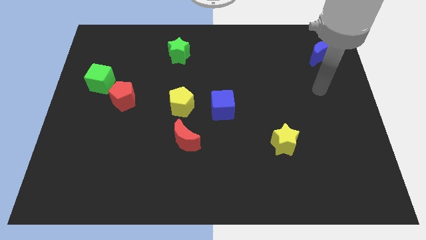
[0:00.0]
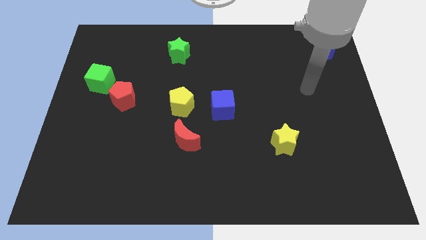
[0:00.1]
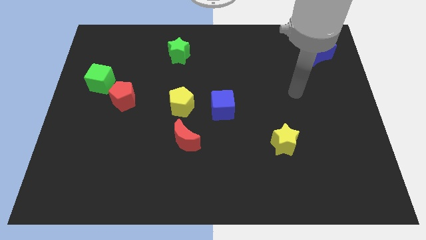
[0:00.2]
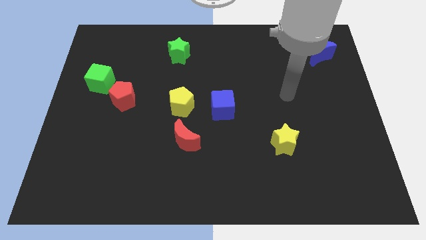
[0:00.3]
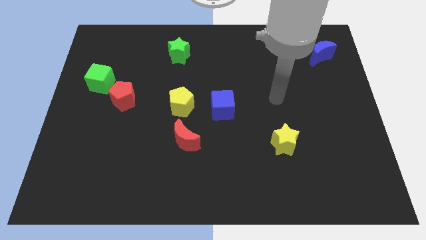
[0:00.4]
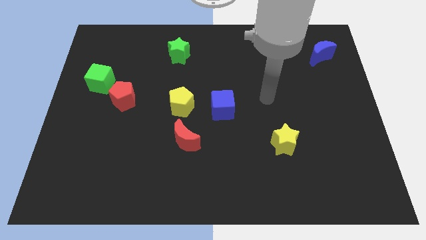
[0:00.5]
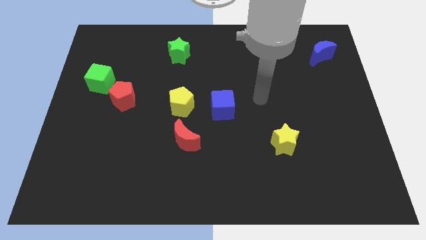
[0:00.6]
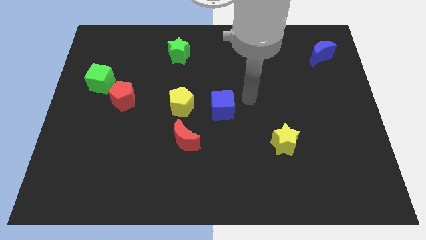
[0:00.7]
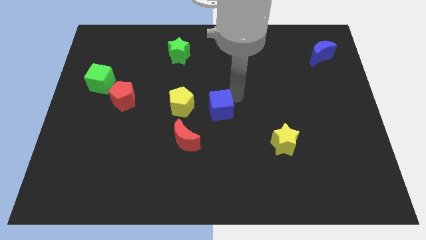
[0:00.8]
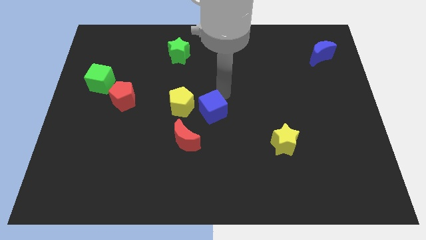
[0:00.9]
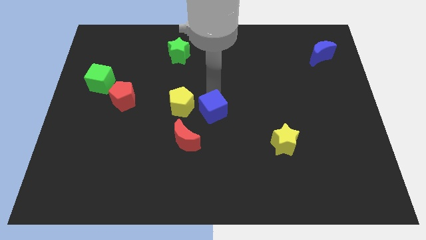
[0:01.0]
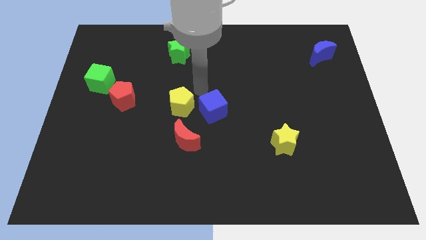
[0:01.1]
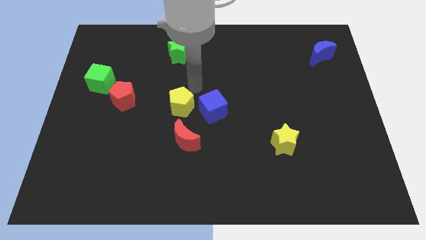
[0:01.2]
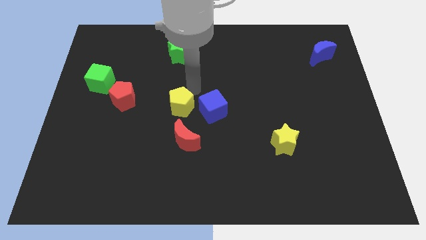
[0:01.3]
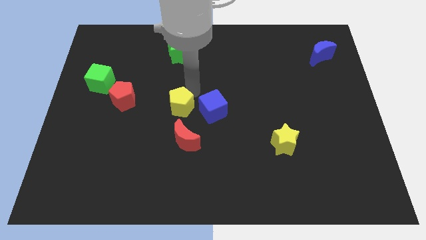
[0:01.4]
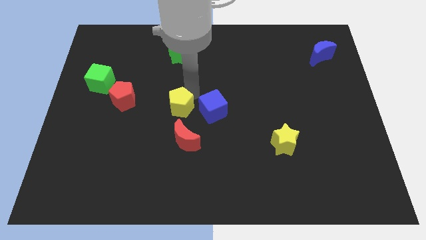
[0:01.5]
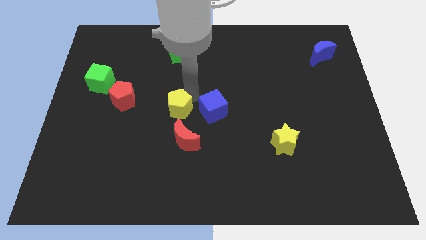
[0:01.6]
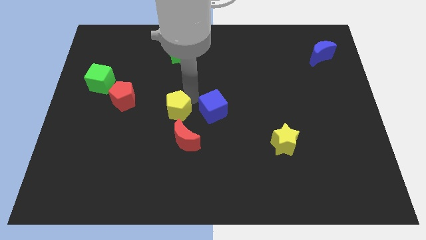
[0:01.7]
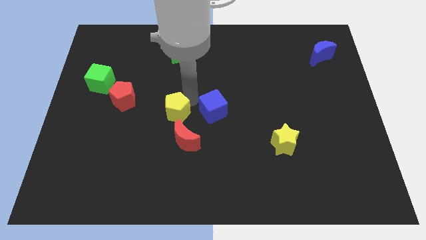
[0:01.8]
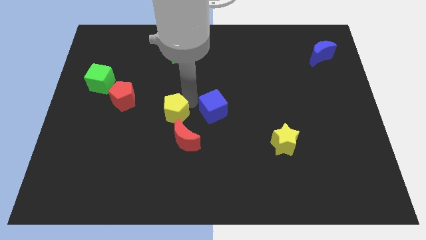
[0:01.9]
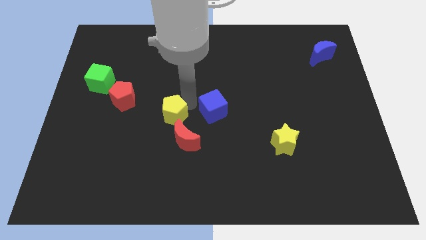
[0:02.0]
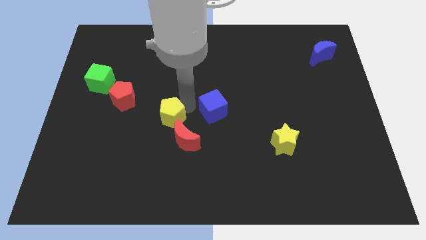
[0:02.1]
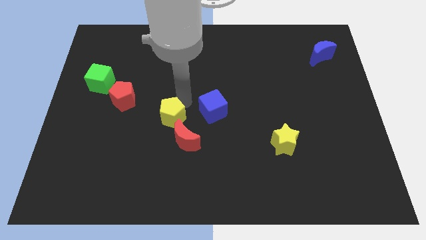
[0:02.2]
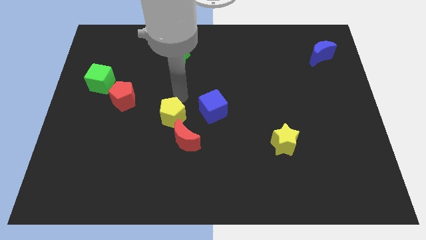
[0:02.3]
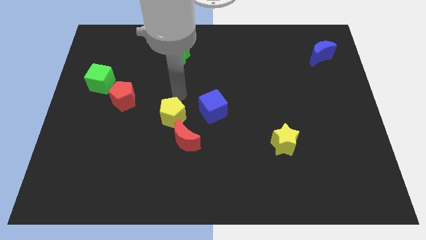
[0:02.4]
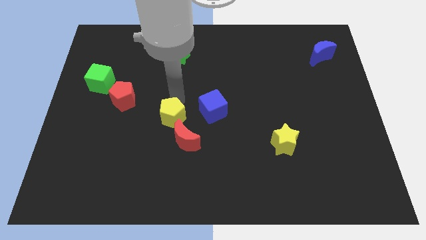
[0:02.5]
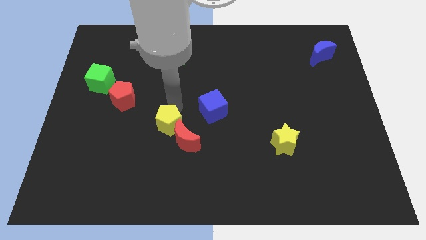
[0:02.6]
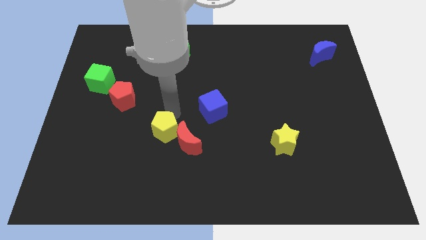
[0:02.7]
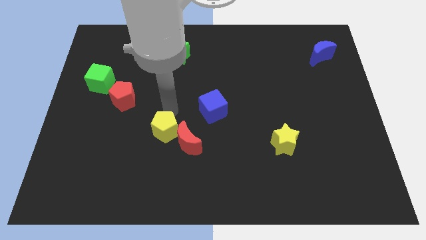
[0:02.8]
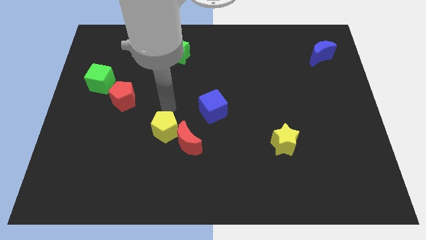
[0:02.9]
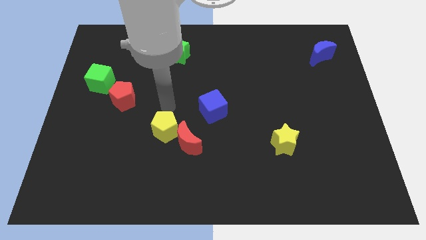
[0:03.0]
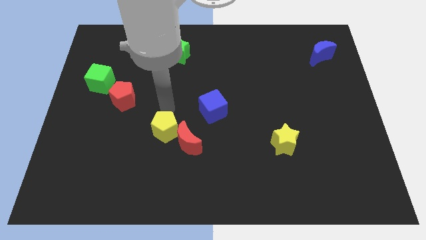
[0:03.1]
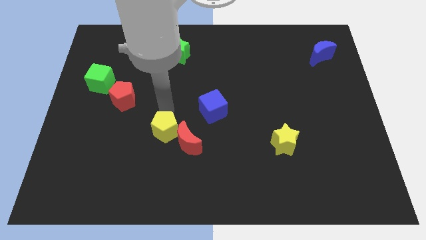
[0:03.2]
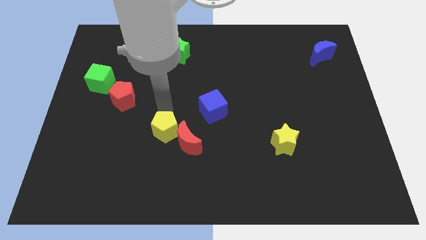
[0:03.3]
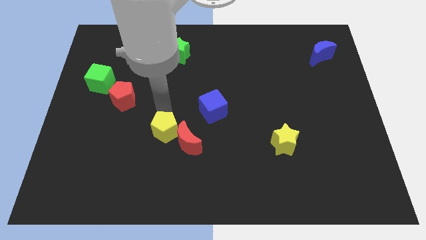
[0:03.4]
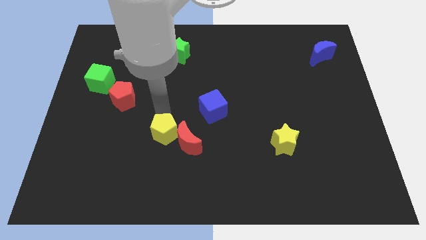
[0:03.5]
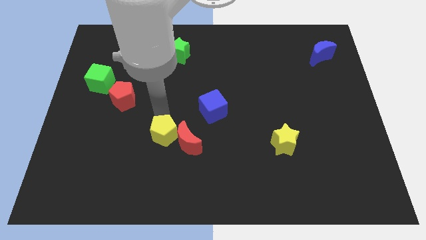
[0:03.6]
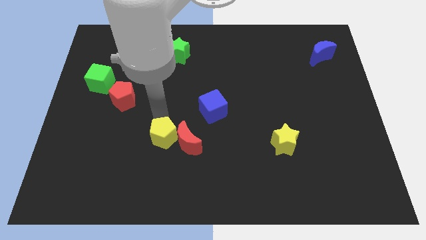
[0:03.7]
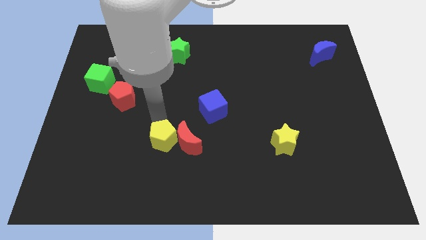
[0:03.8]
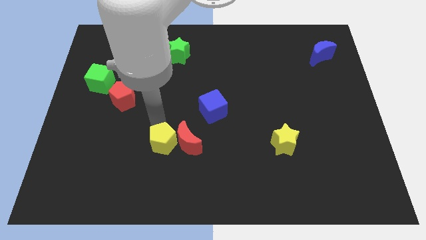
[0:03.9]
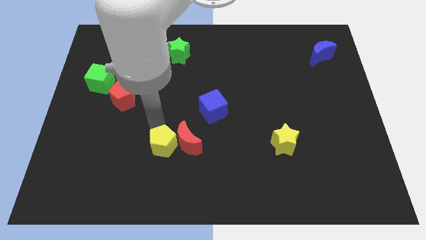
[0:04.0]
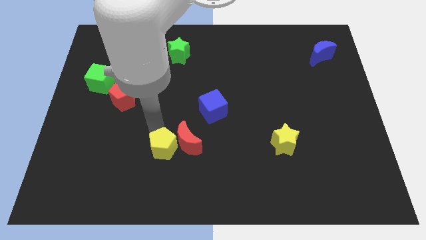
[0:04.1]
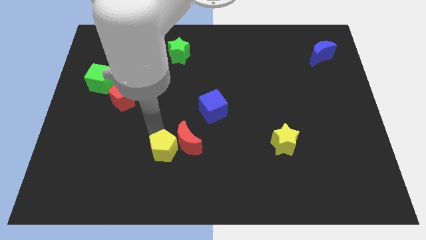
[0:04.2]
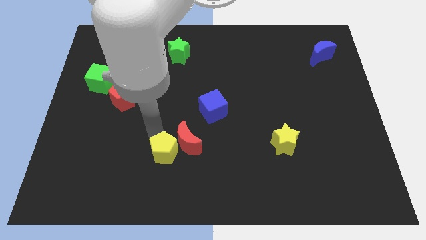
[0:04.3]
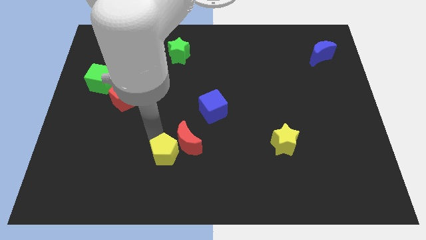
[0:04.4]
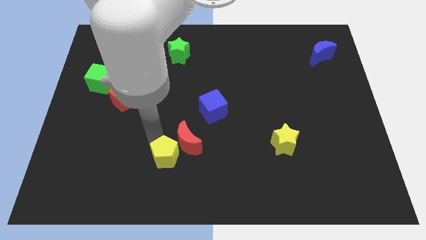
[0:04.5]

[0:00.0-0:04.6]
put the yellow pentagon to the bottom of the red moon

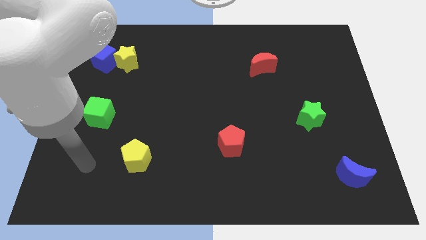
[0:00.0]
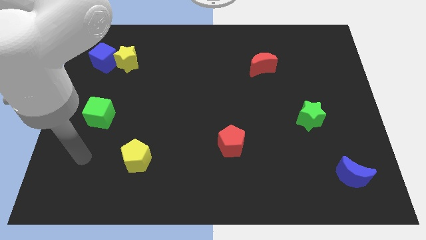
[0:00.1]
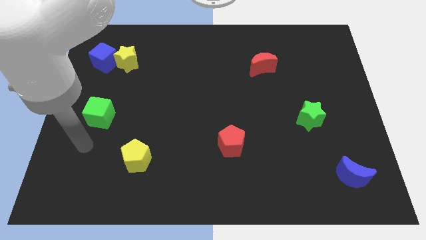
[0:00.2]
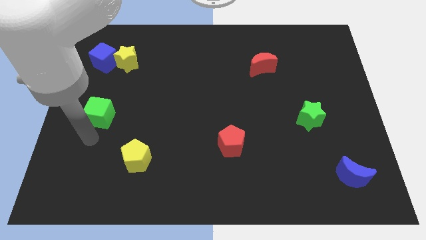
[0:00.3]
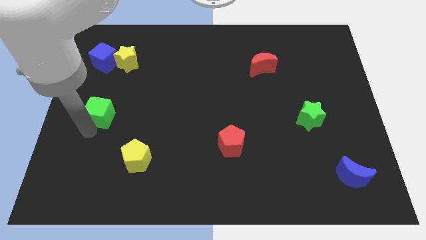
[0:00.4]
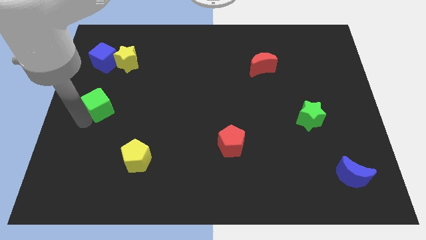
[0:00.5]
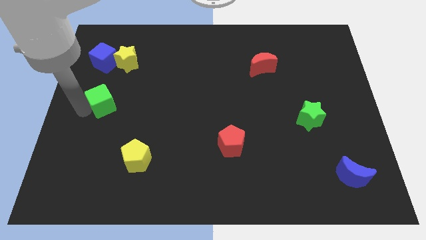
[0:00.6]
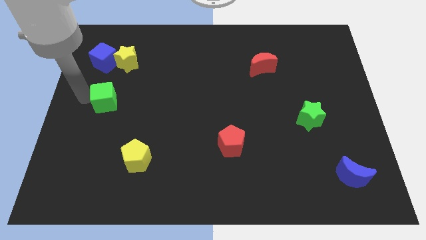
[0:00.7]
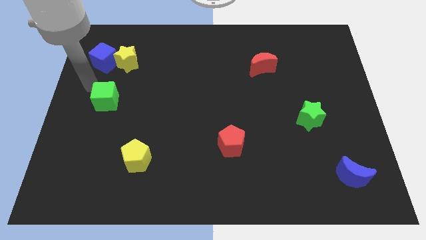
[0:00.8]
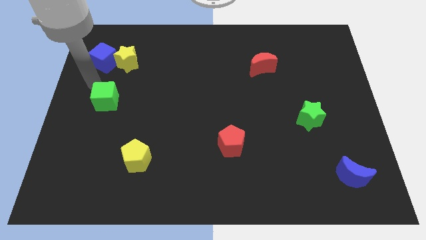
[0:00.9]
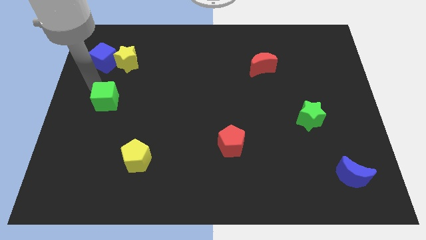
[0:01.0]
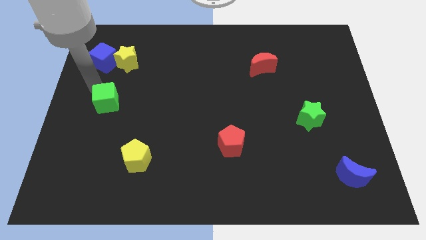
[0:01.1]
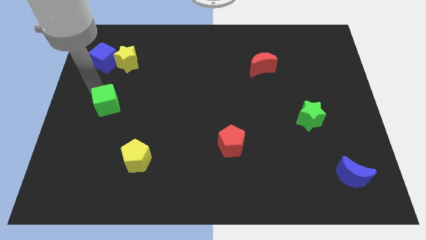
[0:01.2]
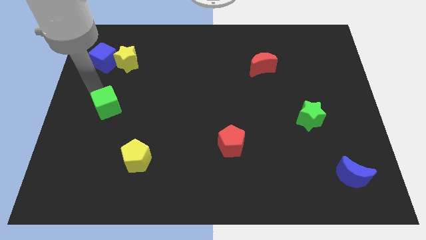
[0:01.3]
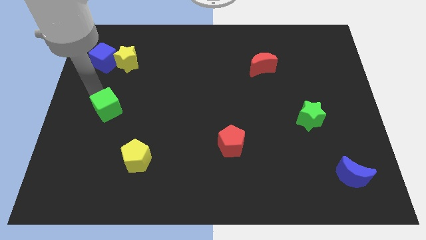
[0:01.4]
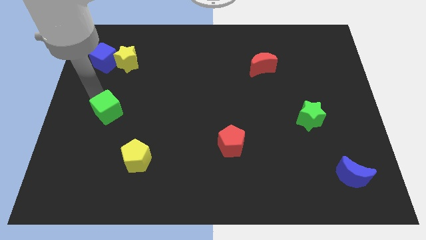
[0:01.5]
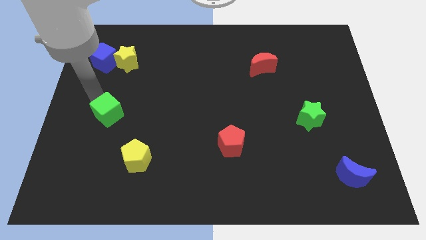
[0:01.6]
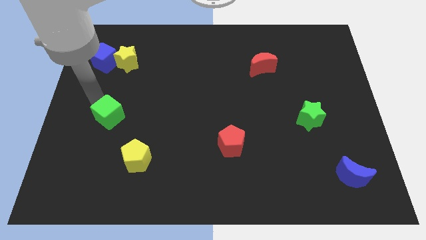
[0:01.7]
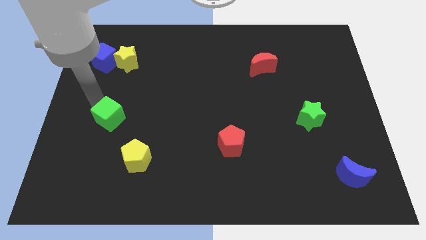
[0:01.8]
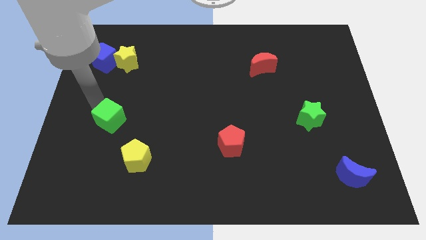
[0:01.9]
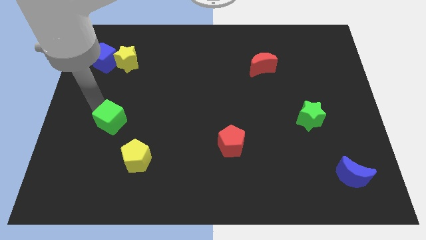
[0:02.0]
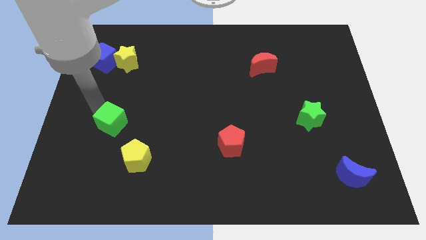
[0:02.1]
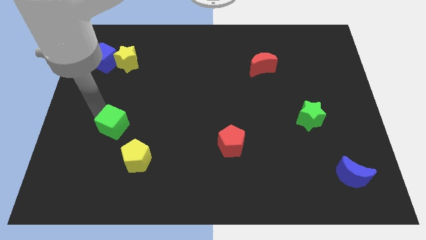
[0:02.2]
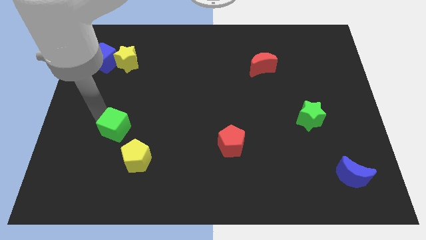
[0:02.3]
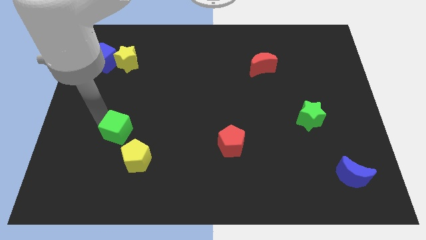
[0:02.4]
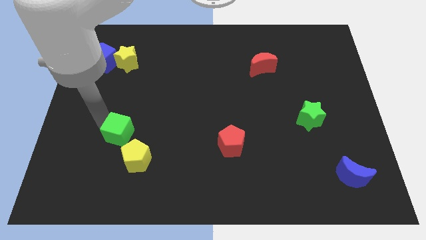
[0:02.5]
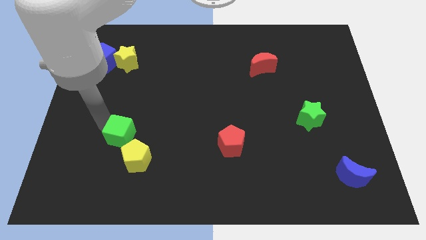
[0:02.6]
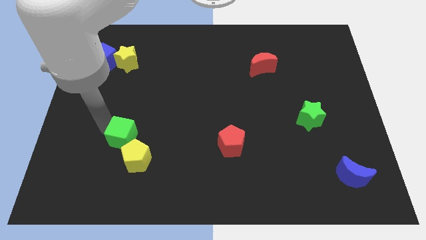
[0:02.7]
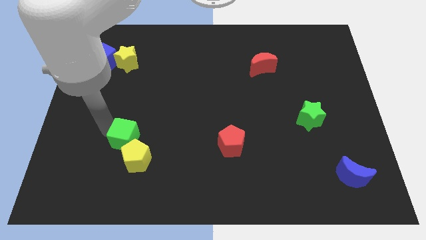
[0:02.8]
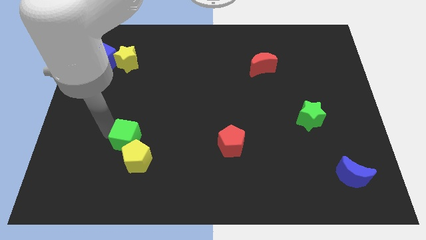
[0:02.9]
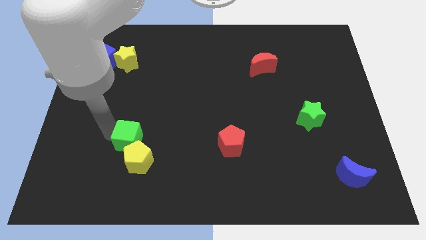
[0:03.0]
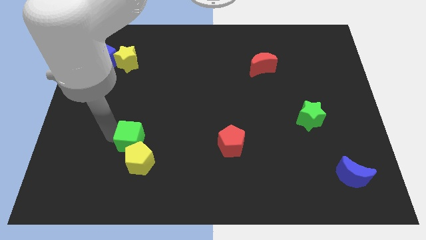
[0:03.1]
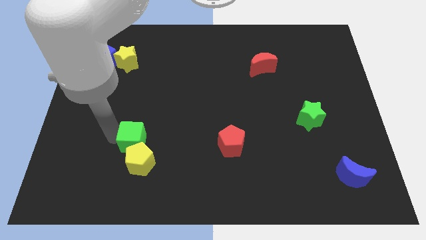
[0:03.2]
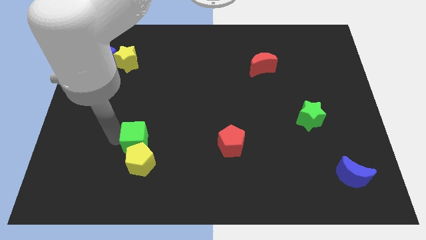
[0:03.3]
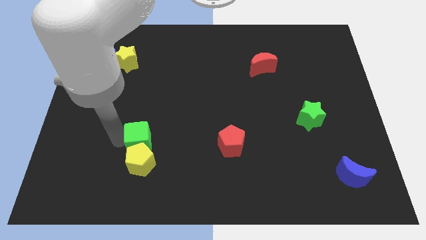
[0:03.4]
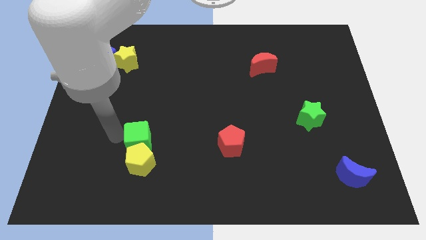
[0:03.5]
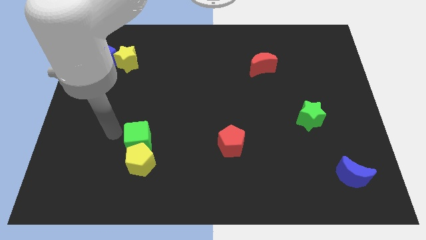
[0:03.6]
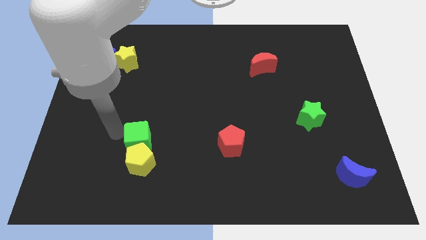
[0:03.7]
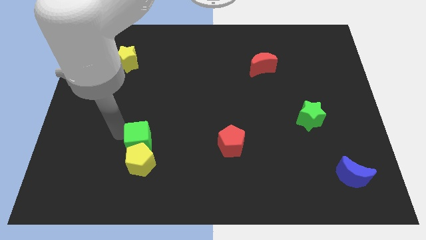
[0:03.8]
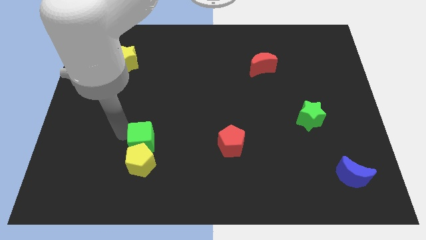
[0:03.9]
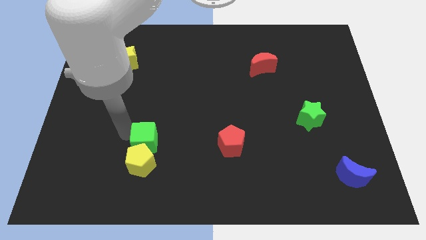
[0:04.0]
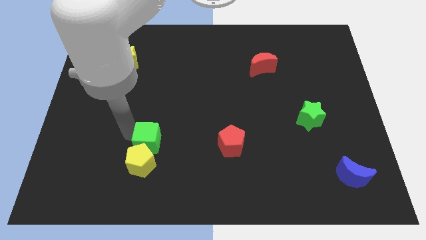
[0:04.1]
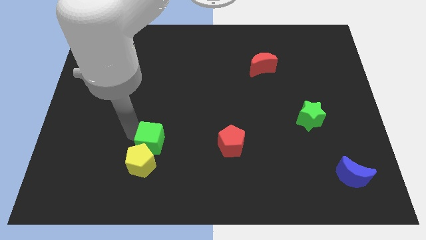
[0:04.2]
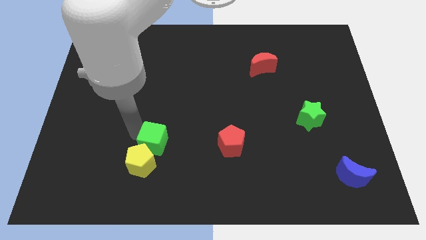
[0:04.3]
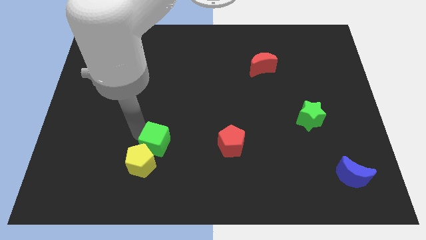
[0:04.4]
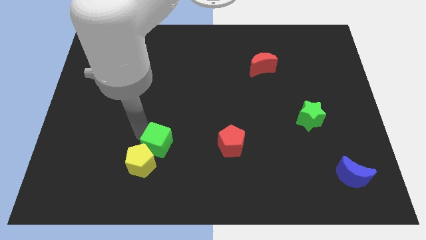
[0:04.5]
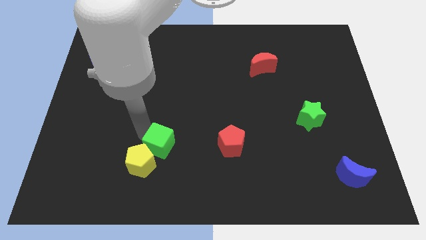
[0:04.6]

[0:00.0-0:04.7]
push the green cube just right of the yellow pentagon
